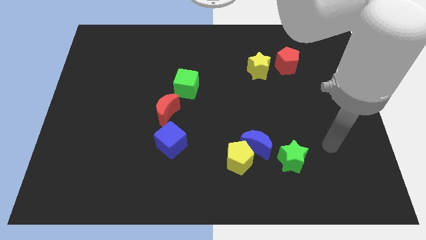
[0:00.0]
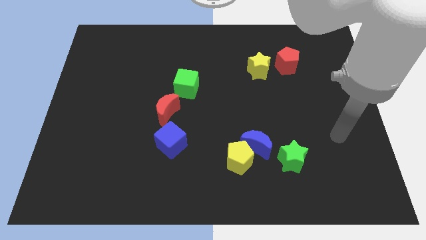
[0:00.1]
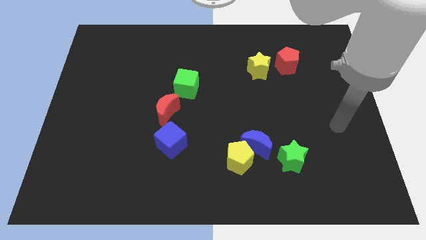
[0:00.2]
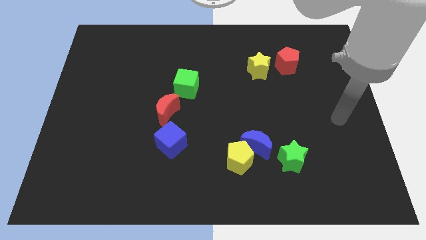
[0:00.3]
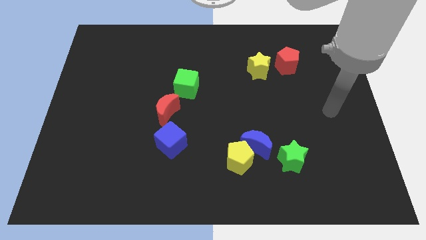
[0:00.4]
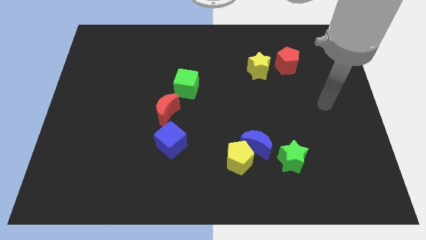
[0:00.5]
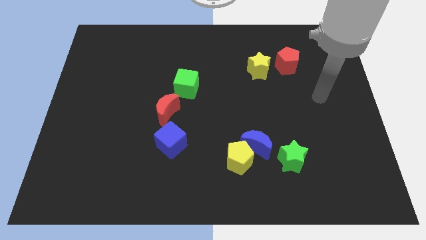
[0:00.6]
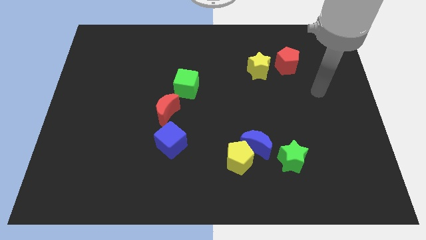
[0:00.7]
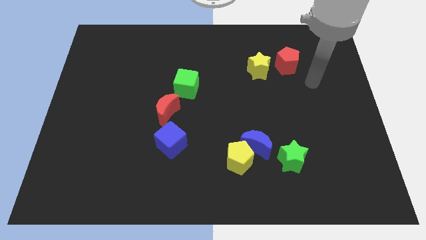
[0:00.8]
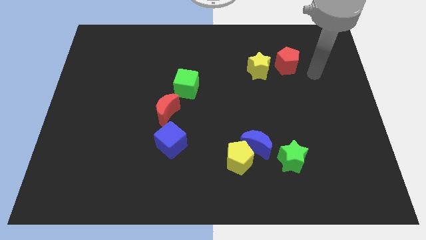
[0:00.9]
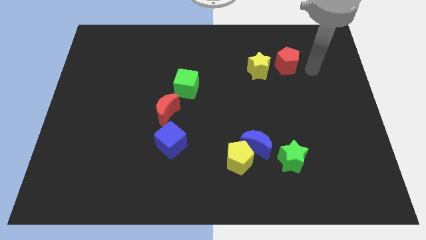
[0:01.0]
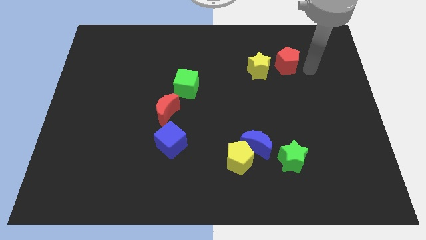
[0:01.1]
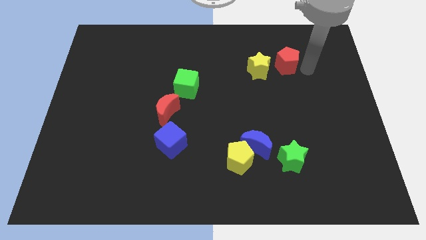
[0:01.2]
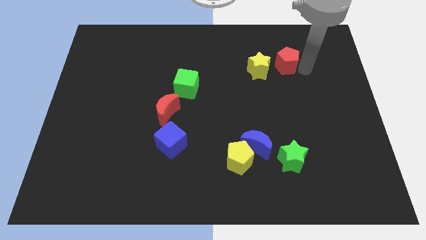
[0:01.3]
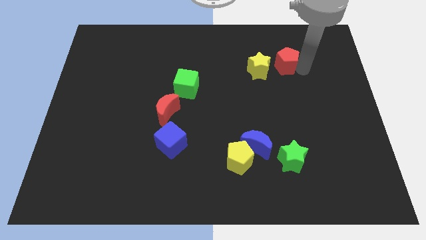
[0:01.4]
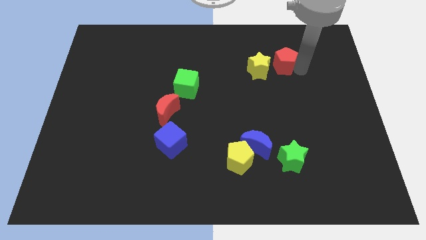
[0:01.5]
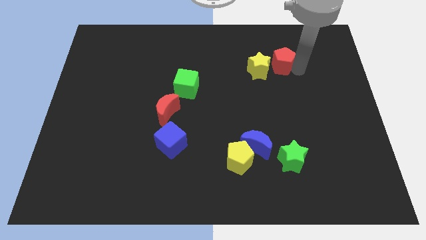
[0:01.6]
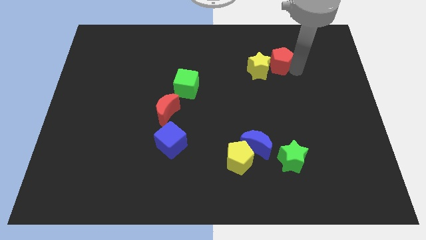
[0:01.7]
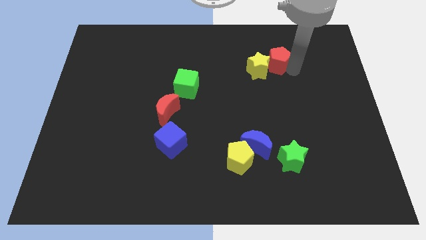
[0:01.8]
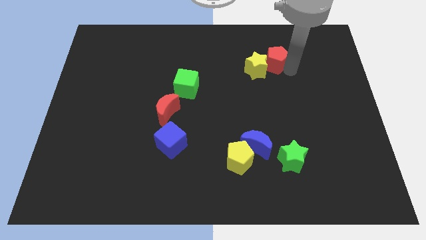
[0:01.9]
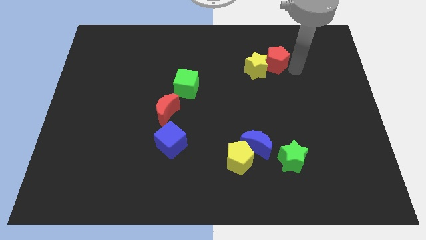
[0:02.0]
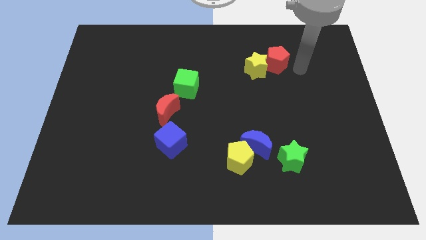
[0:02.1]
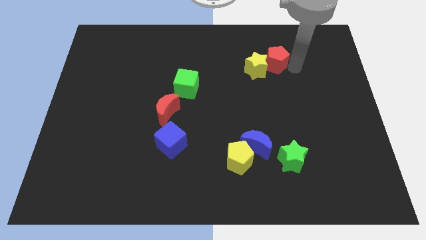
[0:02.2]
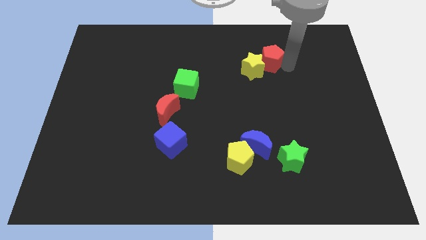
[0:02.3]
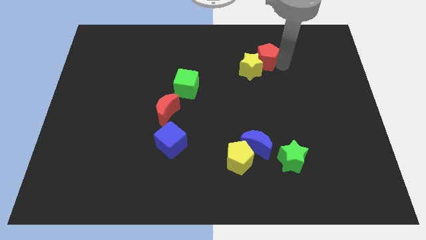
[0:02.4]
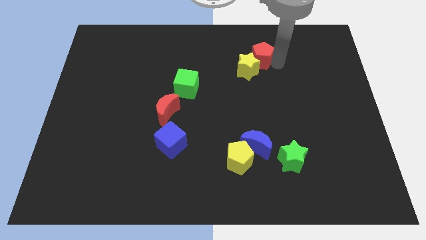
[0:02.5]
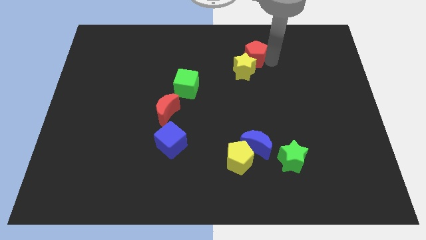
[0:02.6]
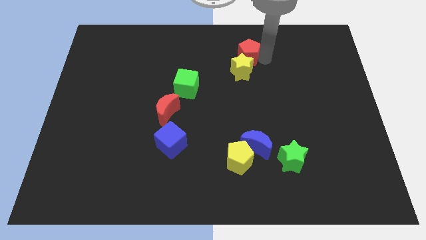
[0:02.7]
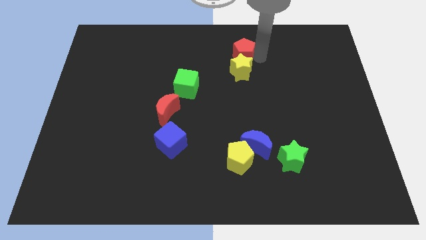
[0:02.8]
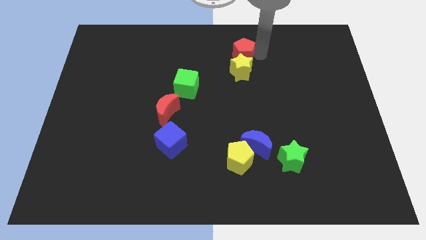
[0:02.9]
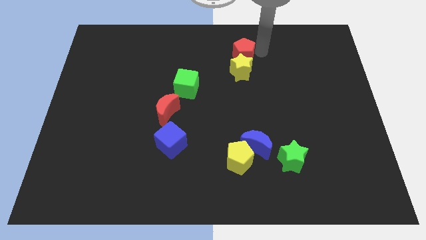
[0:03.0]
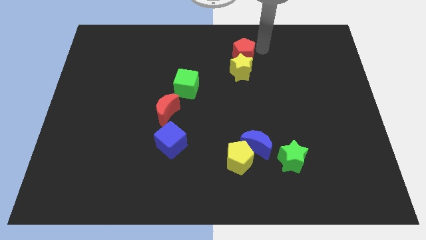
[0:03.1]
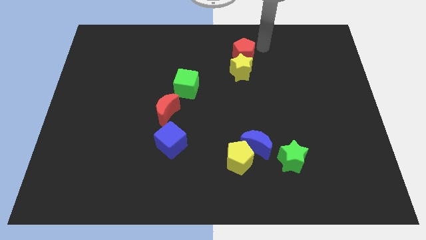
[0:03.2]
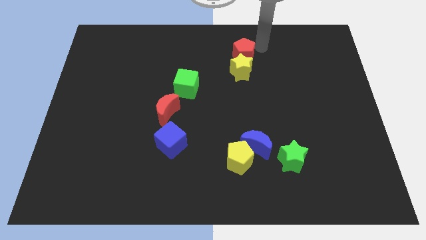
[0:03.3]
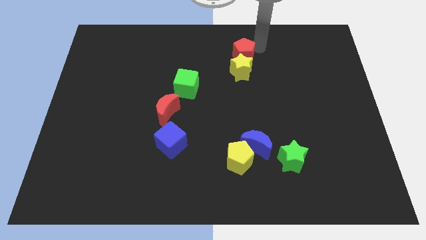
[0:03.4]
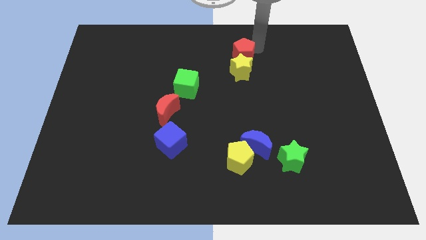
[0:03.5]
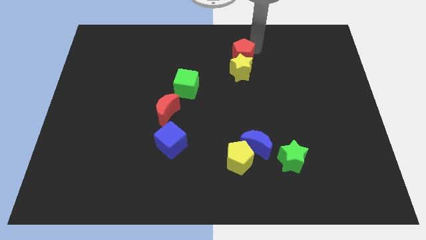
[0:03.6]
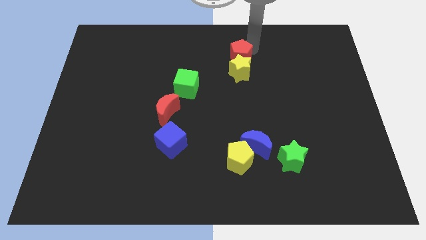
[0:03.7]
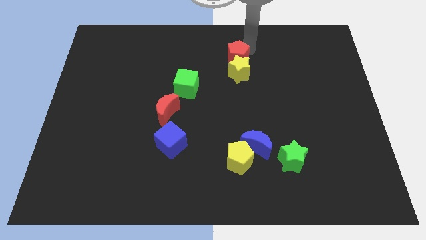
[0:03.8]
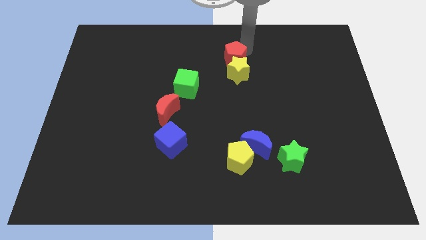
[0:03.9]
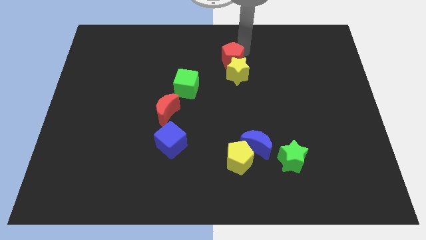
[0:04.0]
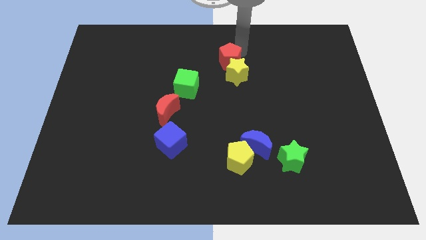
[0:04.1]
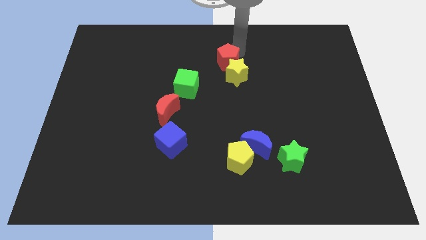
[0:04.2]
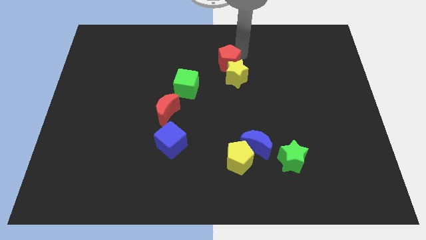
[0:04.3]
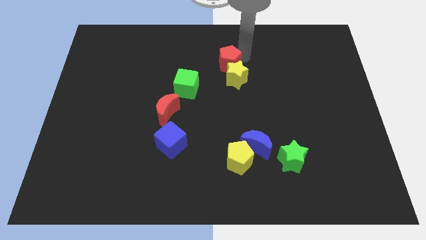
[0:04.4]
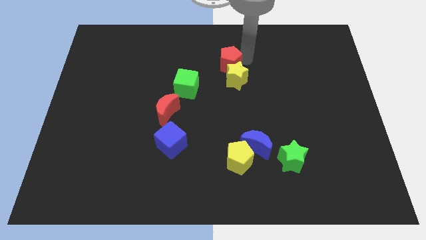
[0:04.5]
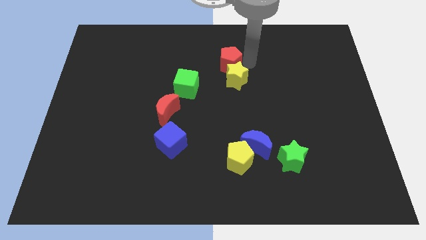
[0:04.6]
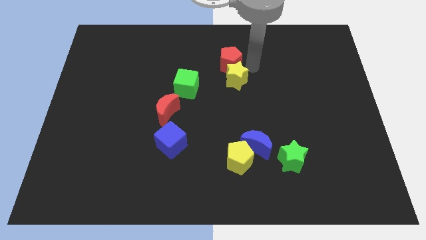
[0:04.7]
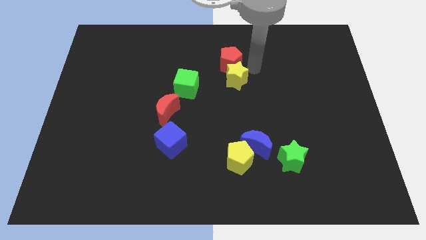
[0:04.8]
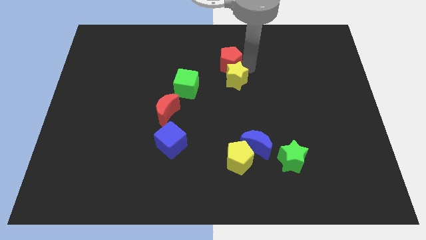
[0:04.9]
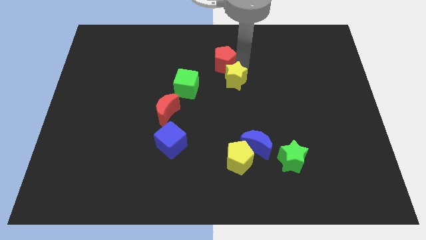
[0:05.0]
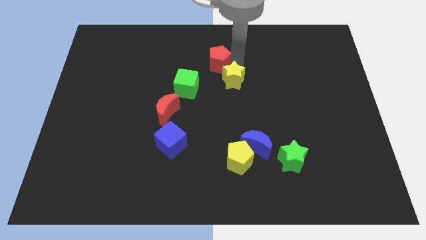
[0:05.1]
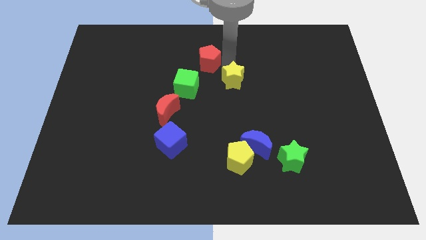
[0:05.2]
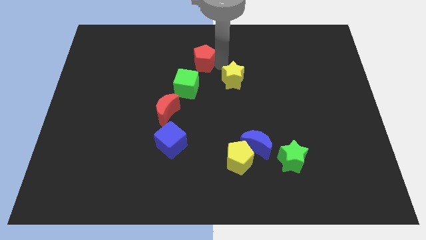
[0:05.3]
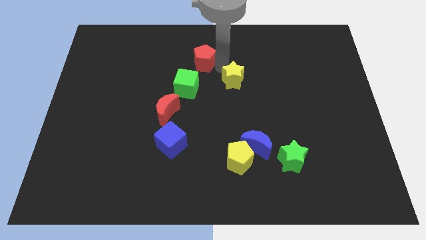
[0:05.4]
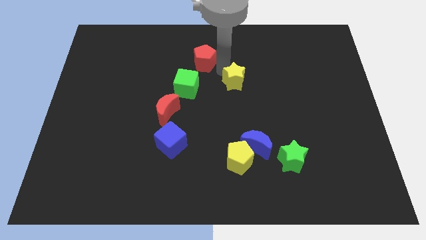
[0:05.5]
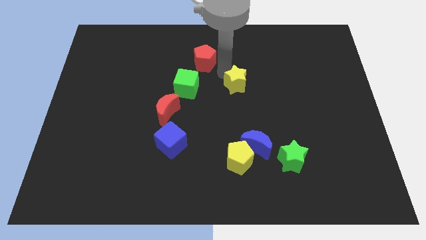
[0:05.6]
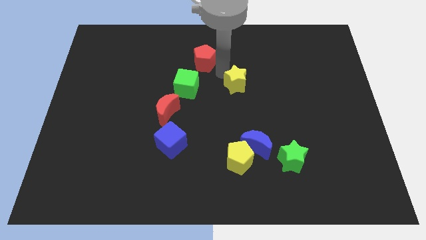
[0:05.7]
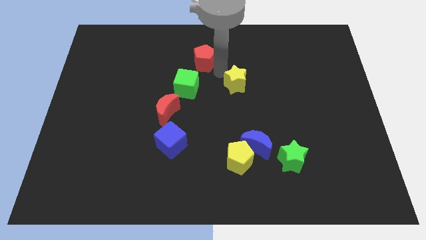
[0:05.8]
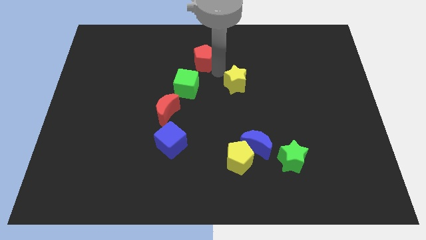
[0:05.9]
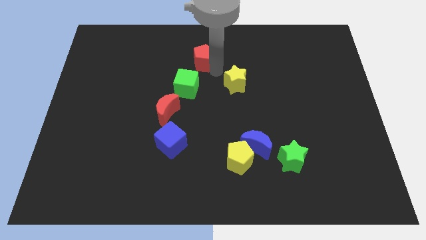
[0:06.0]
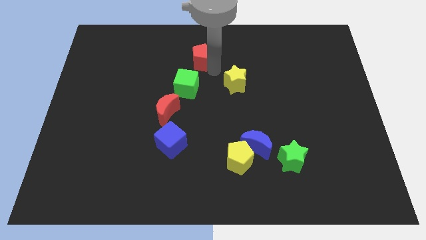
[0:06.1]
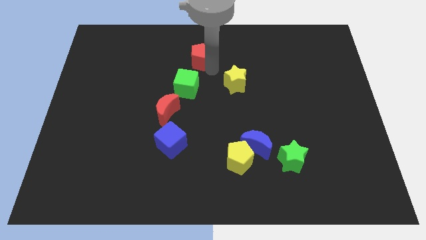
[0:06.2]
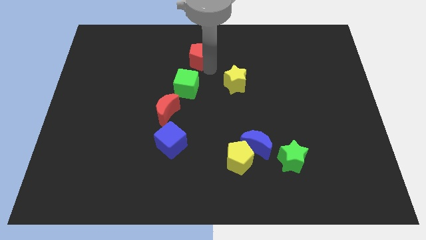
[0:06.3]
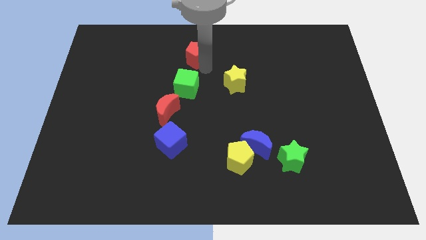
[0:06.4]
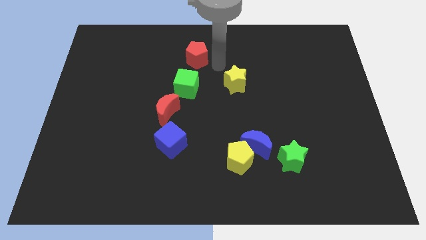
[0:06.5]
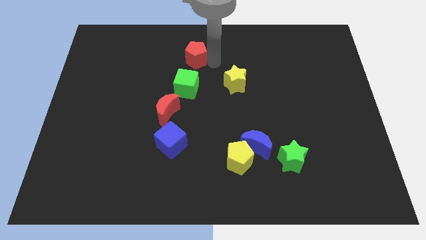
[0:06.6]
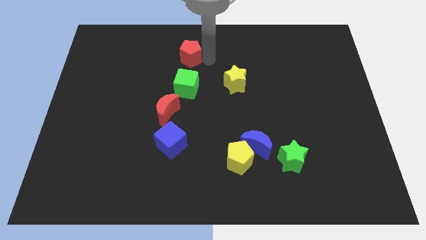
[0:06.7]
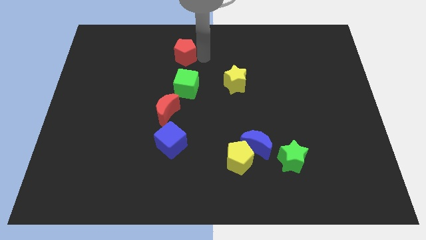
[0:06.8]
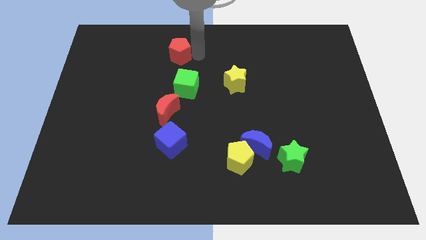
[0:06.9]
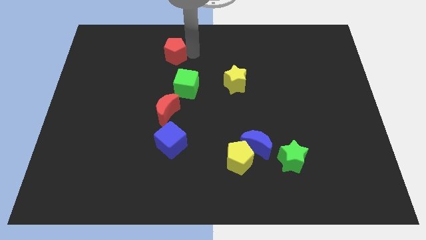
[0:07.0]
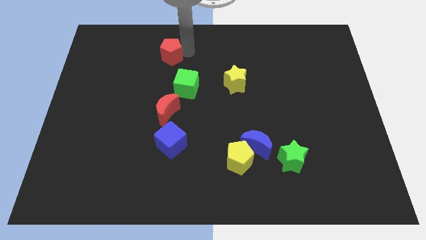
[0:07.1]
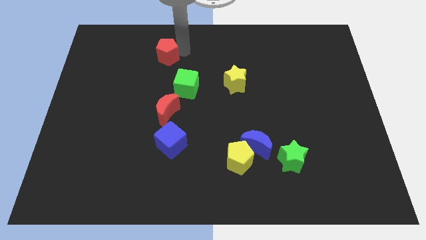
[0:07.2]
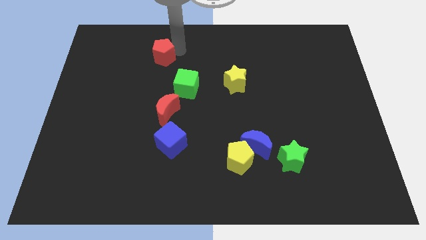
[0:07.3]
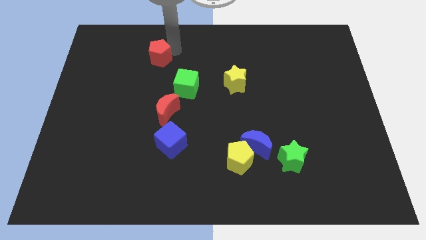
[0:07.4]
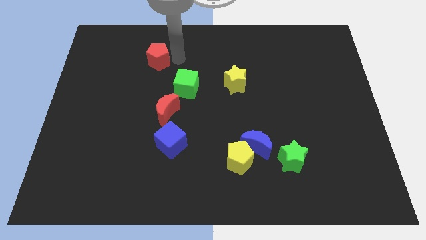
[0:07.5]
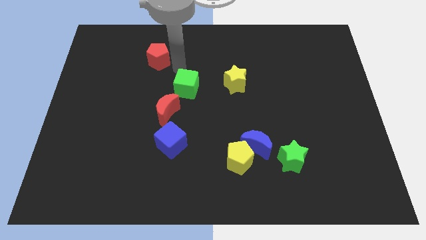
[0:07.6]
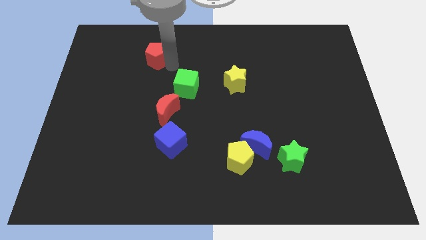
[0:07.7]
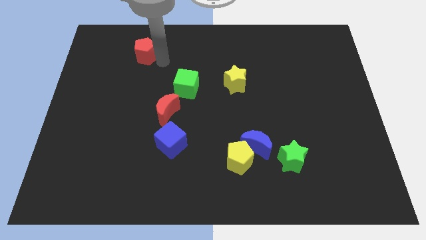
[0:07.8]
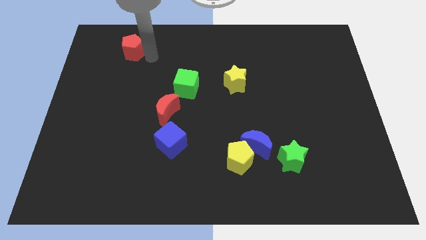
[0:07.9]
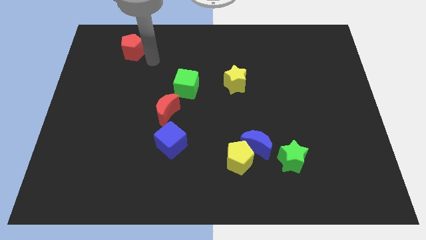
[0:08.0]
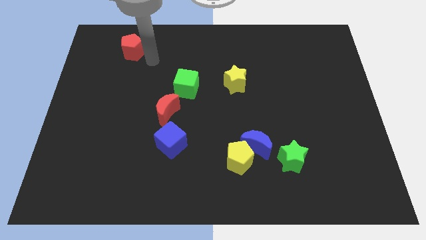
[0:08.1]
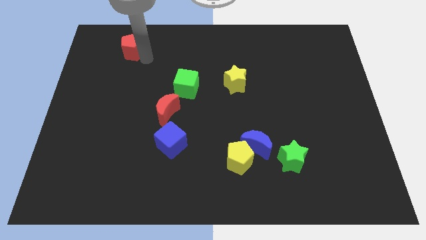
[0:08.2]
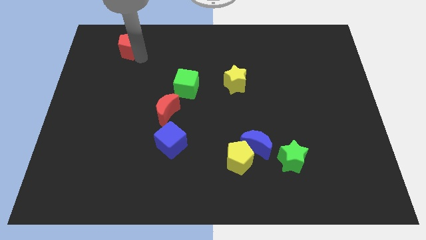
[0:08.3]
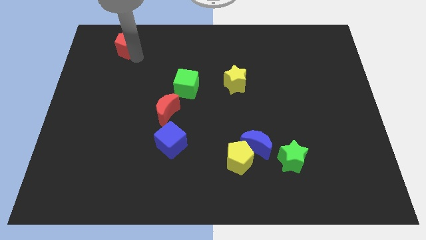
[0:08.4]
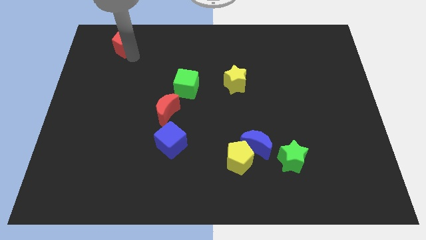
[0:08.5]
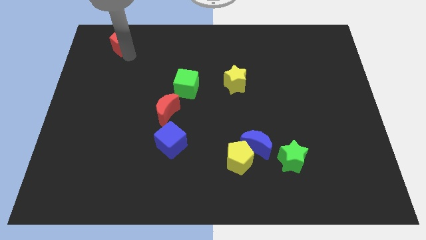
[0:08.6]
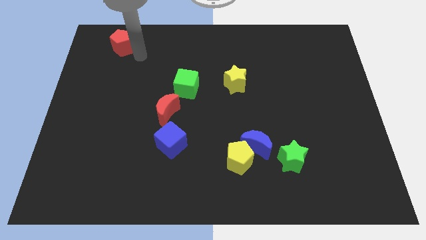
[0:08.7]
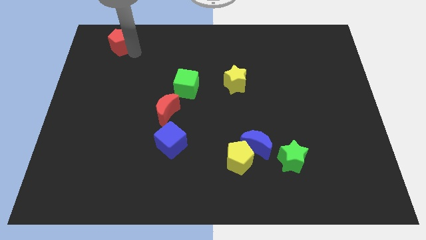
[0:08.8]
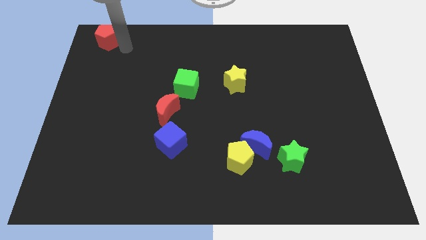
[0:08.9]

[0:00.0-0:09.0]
slide the red pentagon to the top left of the board
